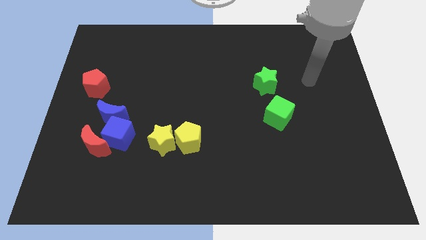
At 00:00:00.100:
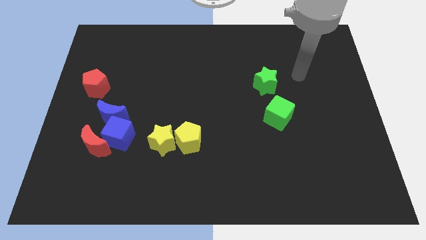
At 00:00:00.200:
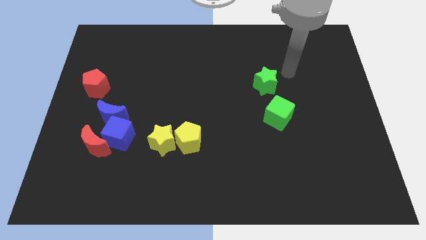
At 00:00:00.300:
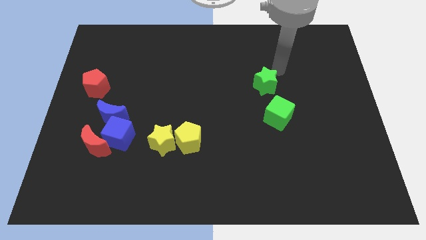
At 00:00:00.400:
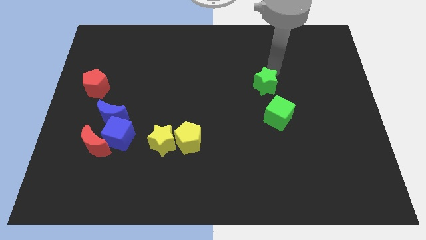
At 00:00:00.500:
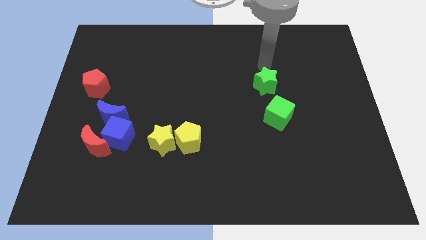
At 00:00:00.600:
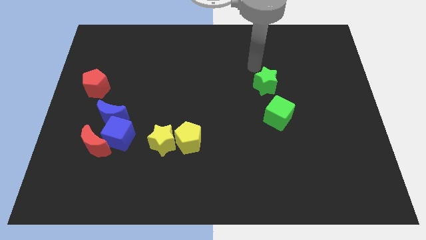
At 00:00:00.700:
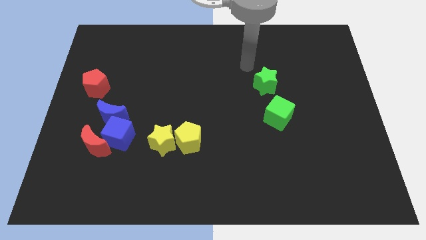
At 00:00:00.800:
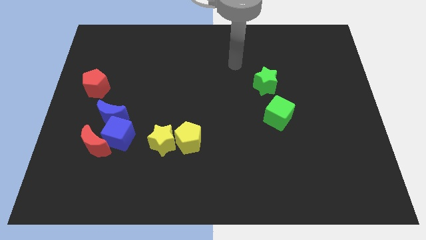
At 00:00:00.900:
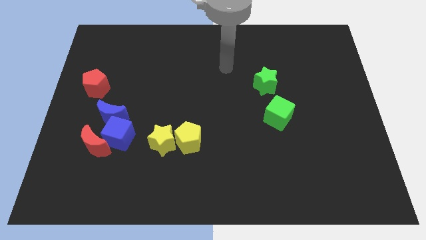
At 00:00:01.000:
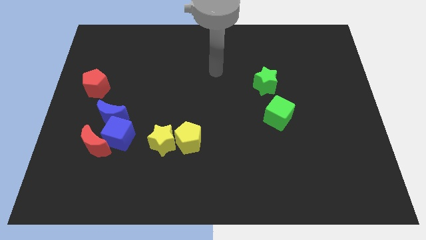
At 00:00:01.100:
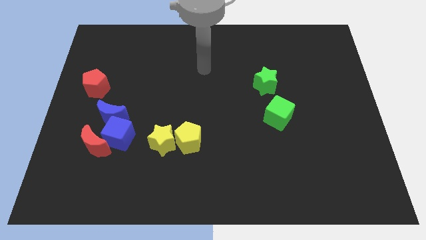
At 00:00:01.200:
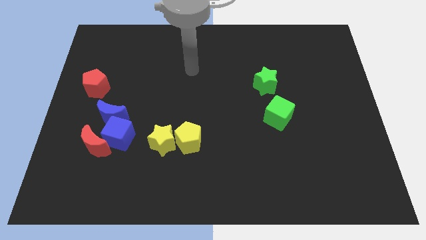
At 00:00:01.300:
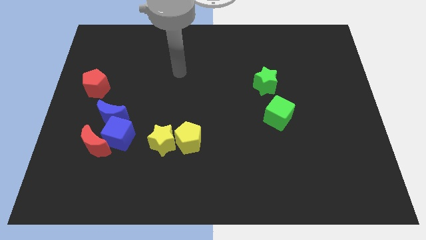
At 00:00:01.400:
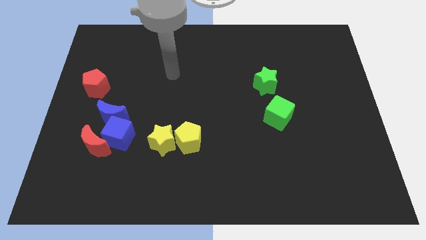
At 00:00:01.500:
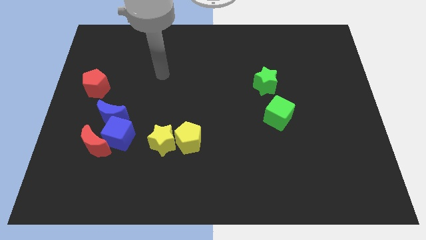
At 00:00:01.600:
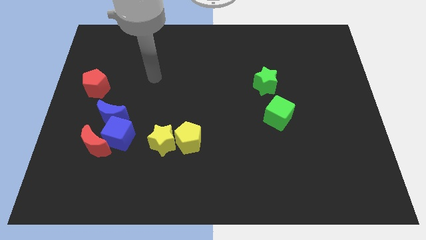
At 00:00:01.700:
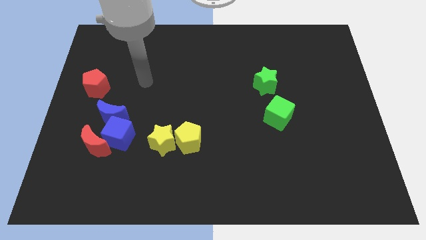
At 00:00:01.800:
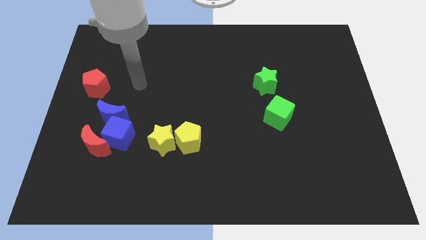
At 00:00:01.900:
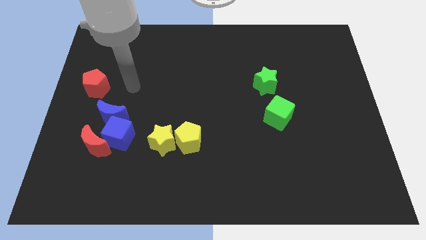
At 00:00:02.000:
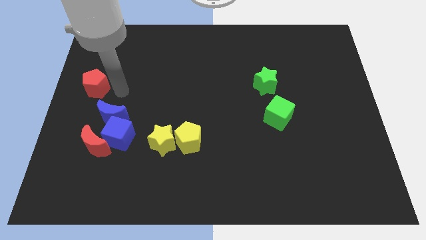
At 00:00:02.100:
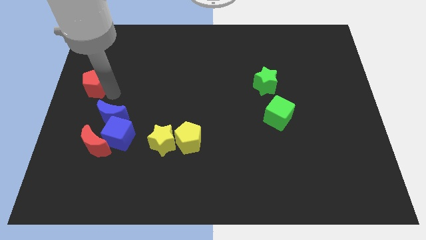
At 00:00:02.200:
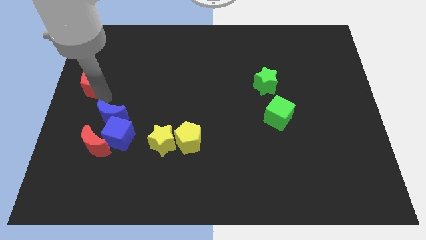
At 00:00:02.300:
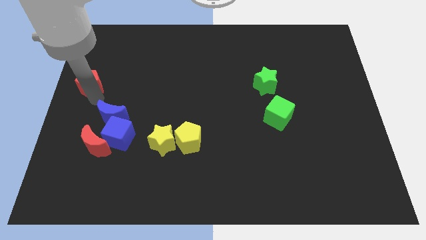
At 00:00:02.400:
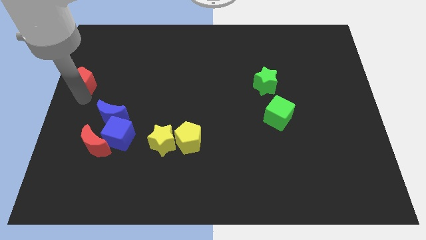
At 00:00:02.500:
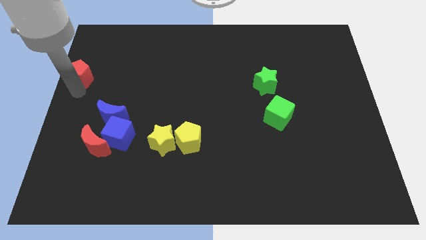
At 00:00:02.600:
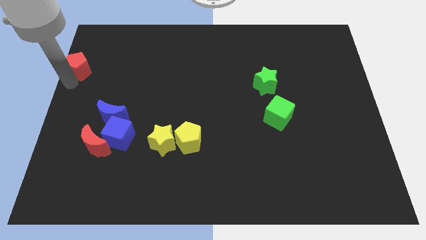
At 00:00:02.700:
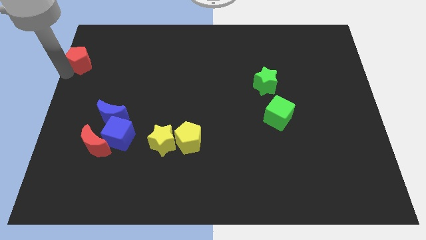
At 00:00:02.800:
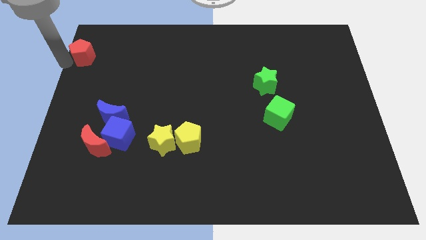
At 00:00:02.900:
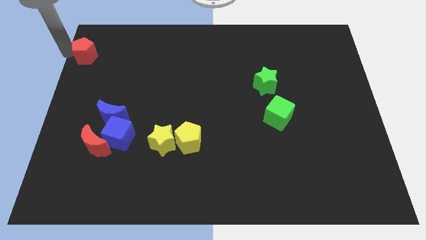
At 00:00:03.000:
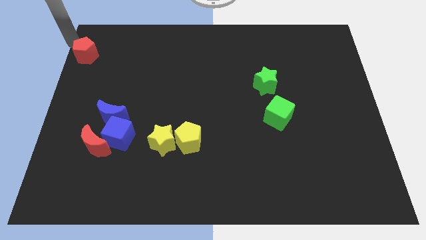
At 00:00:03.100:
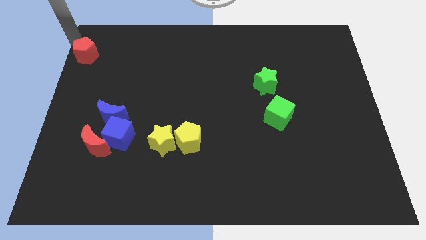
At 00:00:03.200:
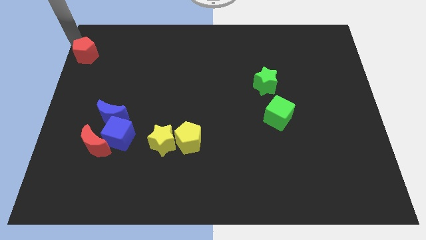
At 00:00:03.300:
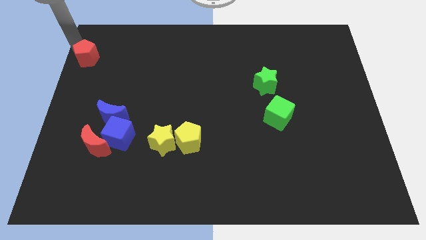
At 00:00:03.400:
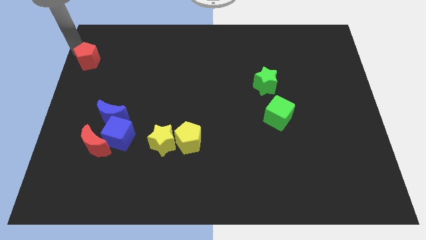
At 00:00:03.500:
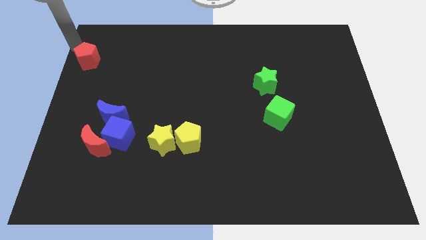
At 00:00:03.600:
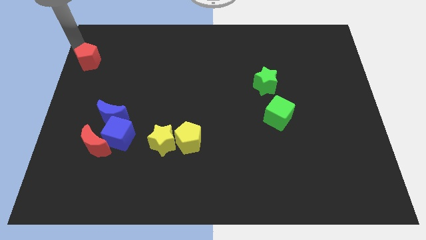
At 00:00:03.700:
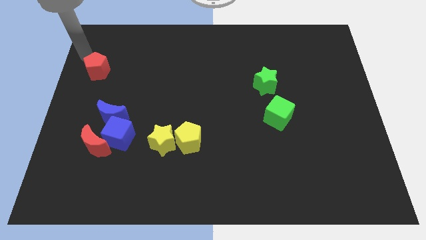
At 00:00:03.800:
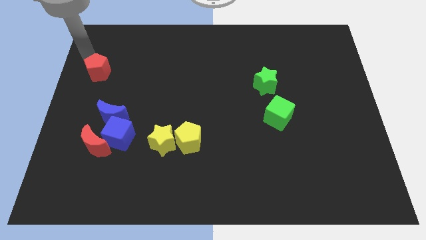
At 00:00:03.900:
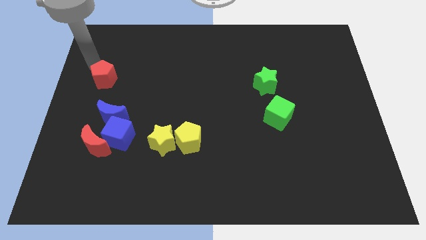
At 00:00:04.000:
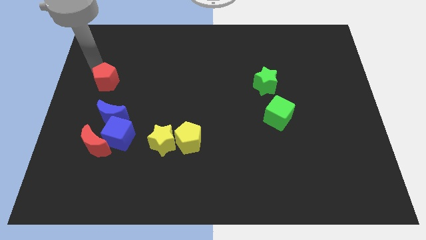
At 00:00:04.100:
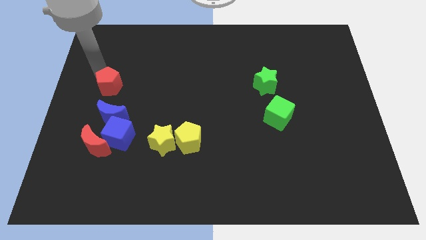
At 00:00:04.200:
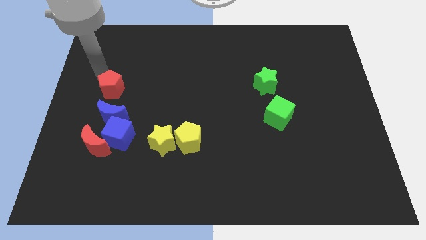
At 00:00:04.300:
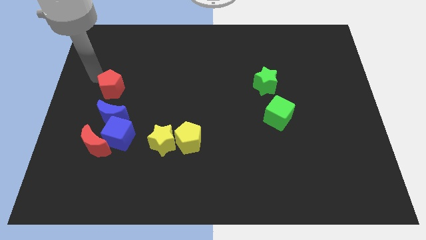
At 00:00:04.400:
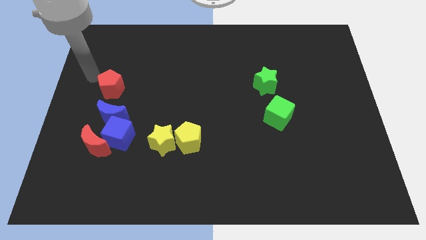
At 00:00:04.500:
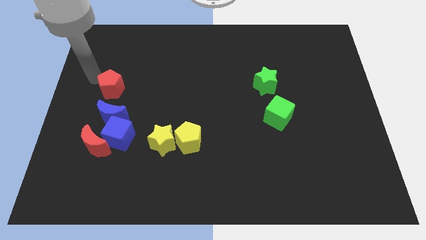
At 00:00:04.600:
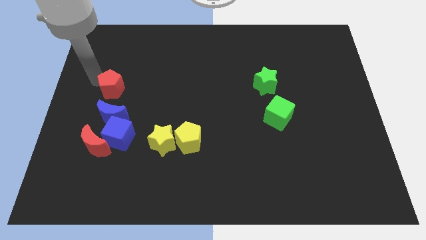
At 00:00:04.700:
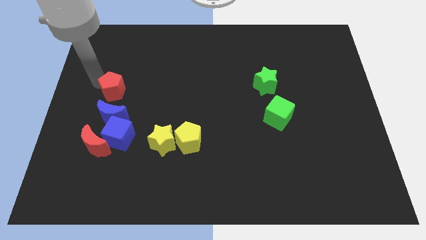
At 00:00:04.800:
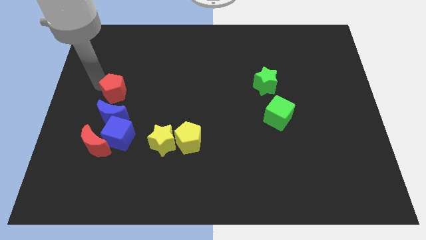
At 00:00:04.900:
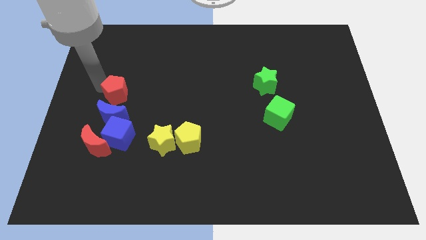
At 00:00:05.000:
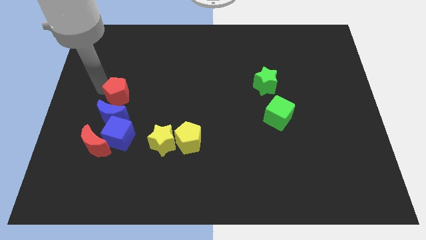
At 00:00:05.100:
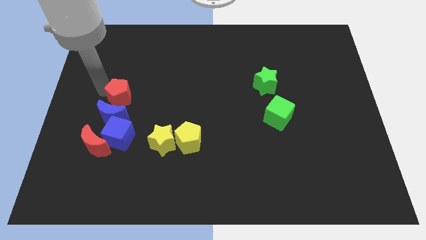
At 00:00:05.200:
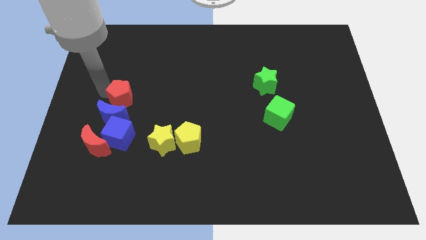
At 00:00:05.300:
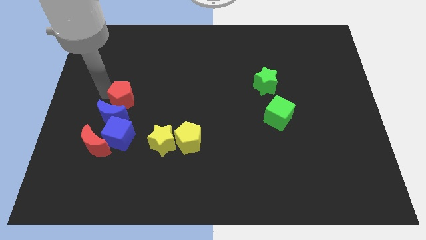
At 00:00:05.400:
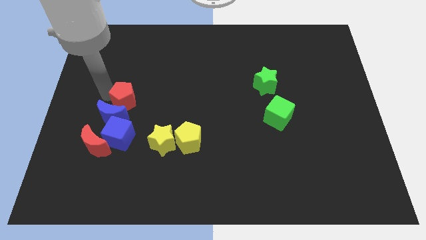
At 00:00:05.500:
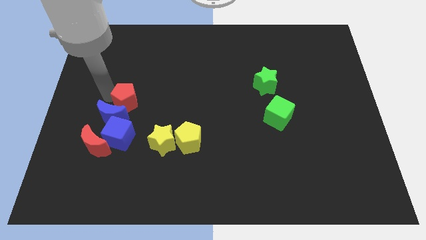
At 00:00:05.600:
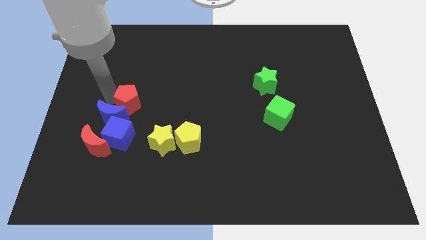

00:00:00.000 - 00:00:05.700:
move the red pentagon right of the blue moon

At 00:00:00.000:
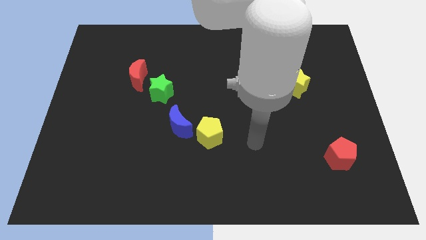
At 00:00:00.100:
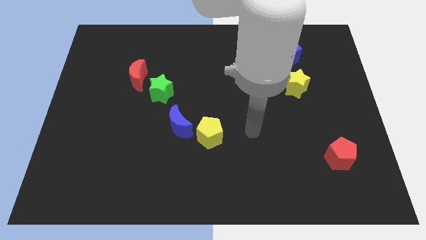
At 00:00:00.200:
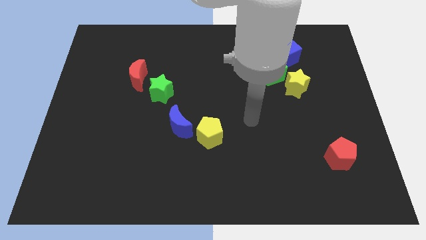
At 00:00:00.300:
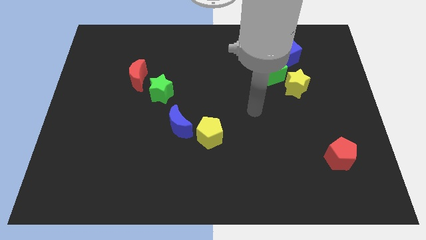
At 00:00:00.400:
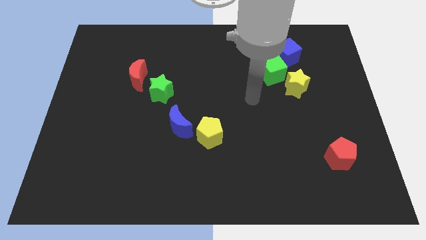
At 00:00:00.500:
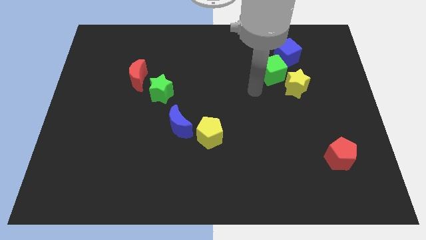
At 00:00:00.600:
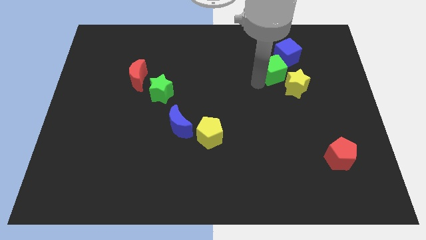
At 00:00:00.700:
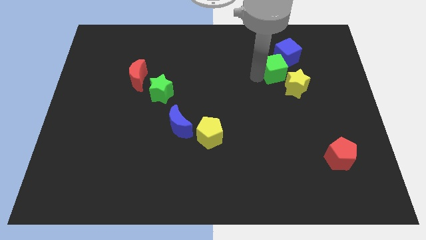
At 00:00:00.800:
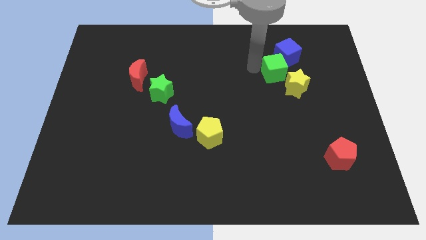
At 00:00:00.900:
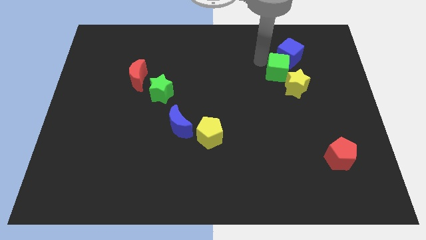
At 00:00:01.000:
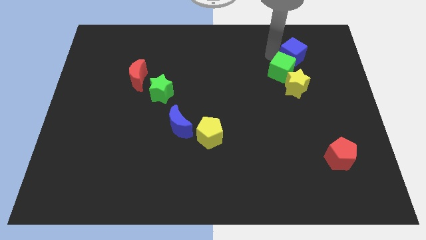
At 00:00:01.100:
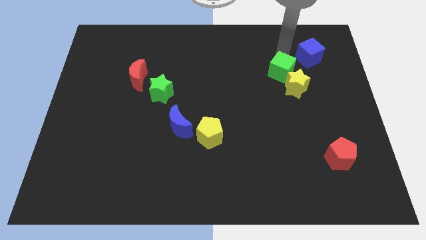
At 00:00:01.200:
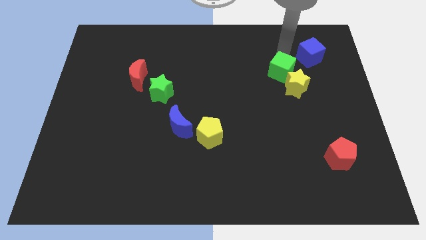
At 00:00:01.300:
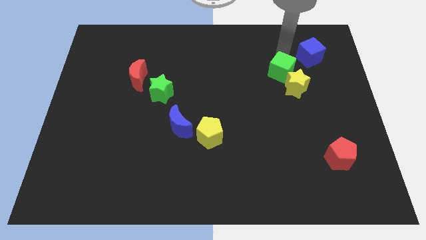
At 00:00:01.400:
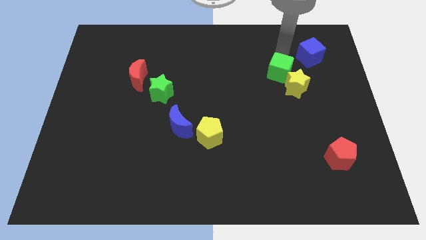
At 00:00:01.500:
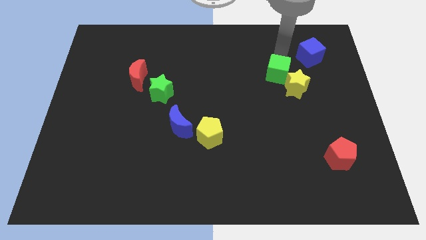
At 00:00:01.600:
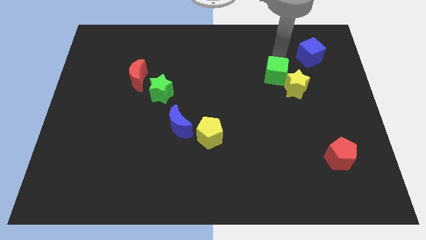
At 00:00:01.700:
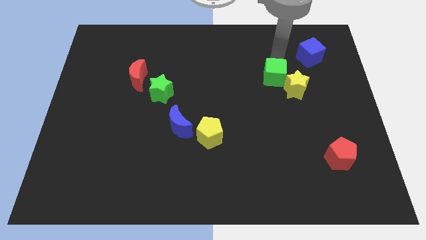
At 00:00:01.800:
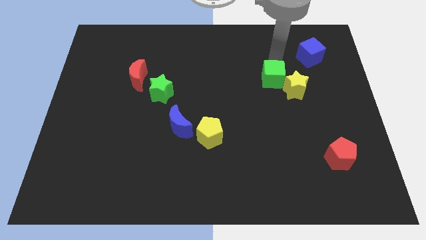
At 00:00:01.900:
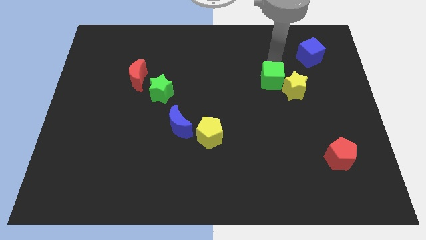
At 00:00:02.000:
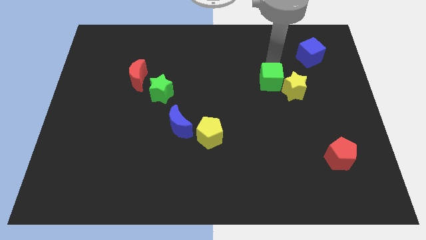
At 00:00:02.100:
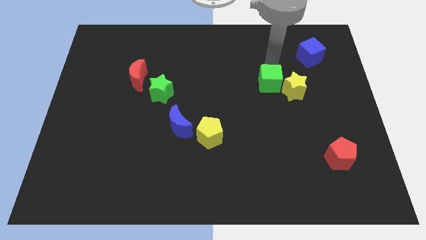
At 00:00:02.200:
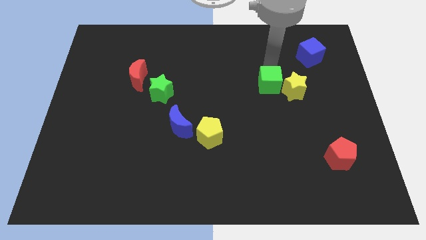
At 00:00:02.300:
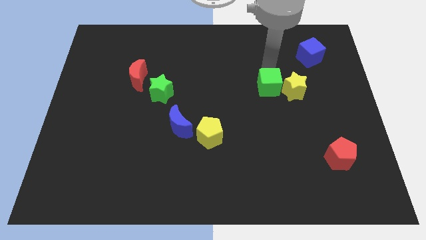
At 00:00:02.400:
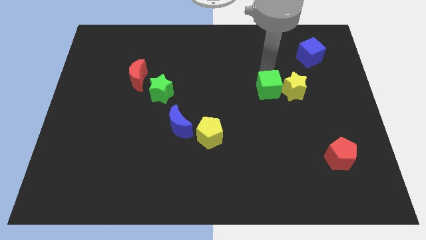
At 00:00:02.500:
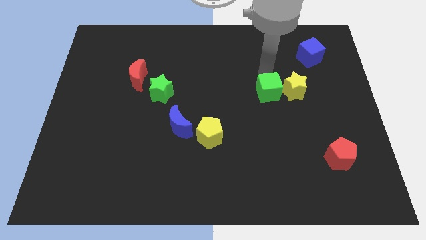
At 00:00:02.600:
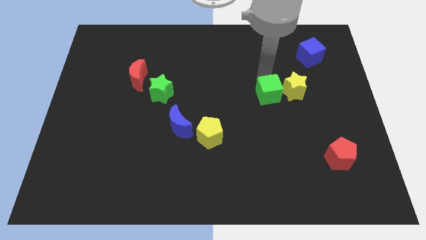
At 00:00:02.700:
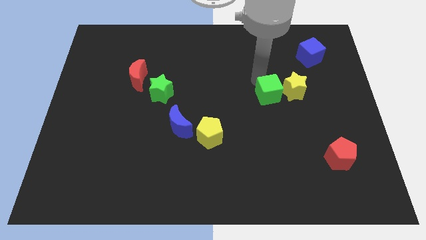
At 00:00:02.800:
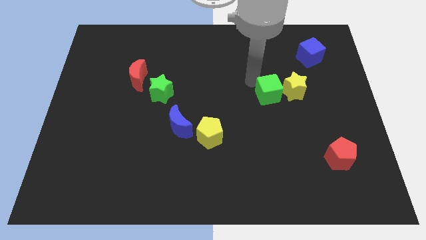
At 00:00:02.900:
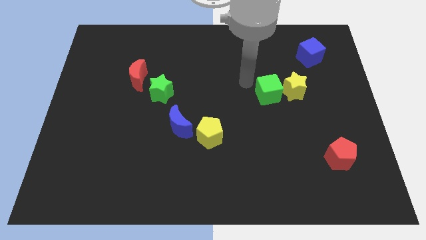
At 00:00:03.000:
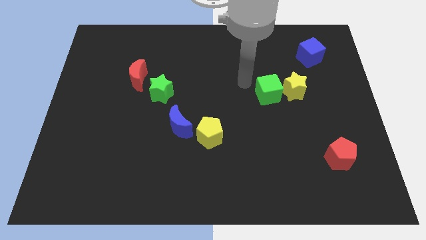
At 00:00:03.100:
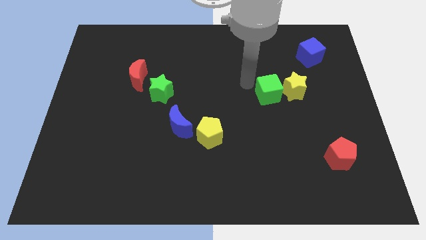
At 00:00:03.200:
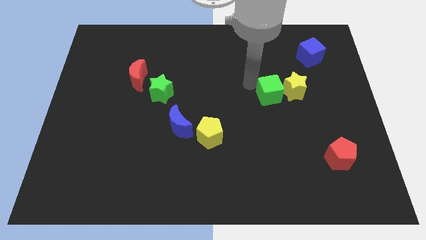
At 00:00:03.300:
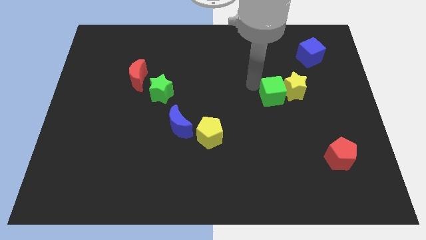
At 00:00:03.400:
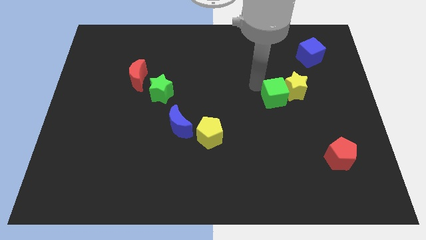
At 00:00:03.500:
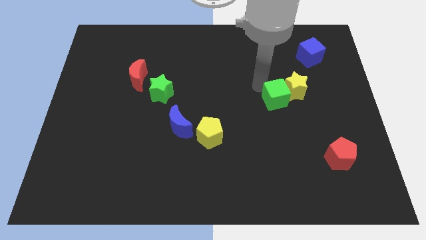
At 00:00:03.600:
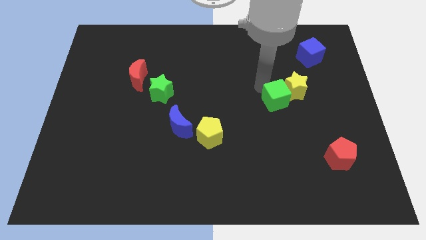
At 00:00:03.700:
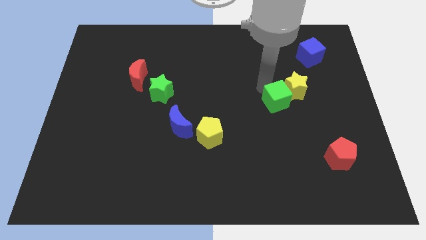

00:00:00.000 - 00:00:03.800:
move the green cube to the bottom side of the yellow star
